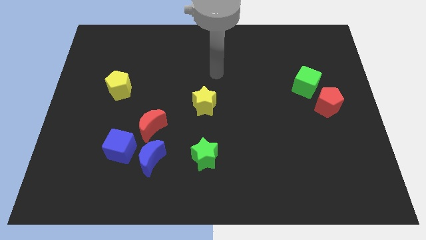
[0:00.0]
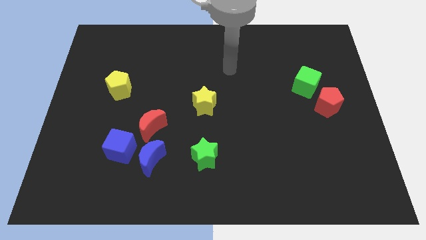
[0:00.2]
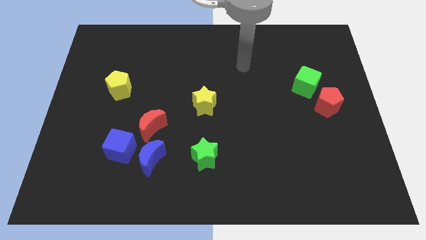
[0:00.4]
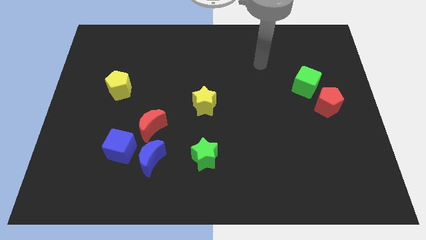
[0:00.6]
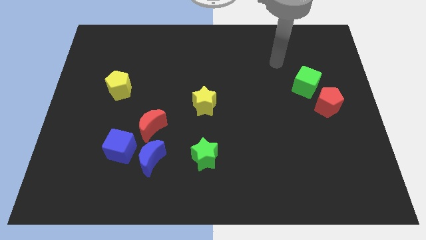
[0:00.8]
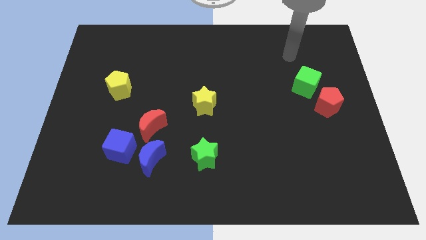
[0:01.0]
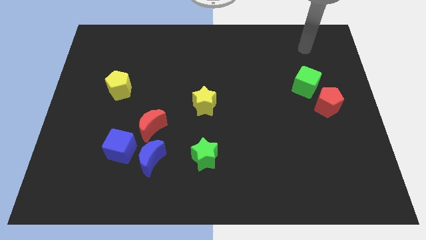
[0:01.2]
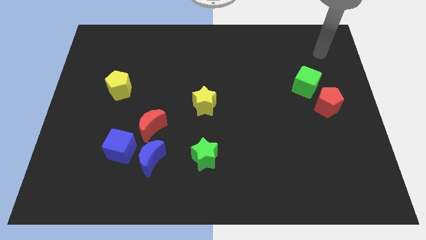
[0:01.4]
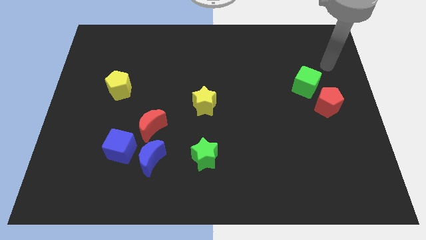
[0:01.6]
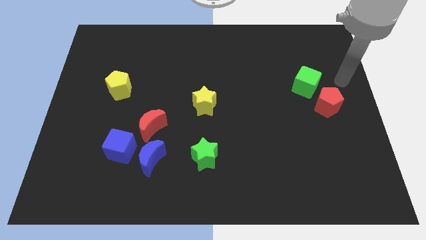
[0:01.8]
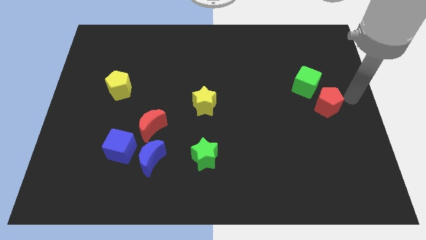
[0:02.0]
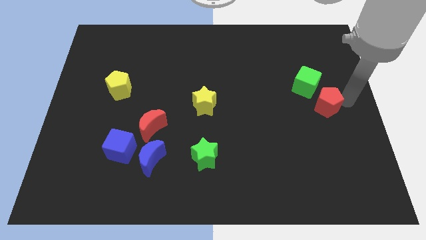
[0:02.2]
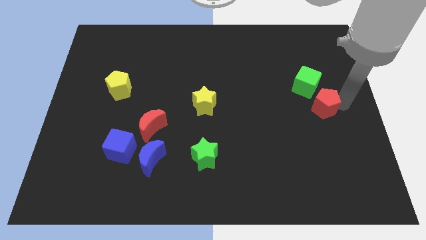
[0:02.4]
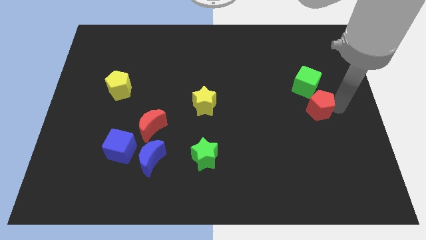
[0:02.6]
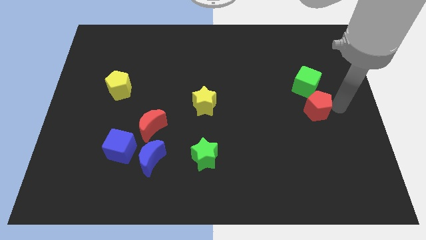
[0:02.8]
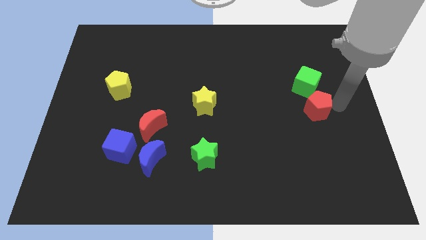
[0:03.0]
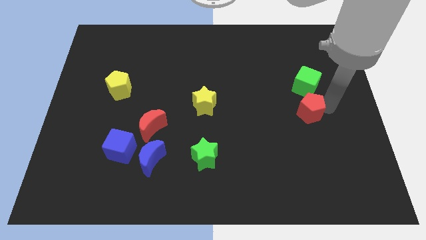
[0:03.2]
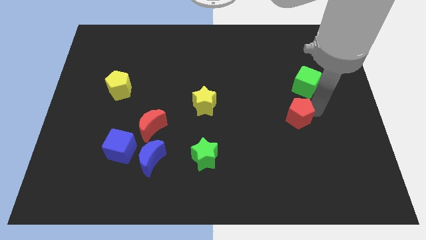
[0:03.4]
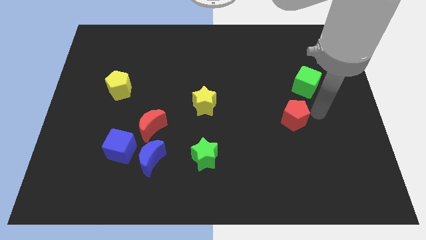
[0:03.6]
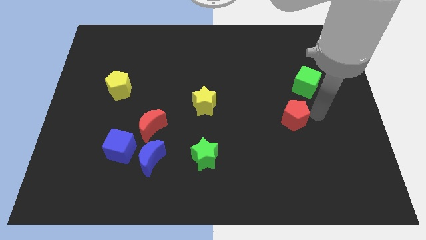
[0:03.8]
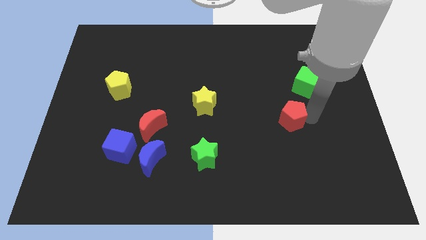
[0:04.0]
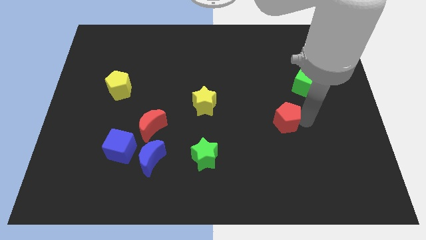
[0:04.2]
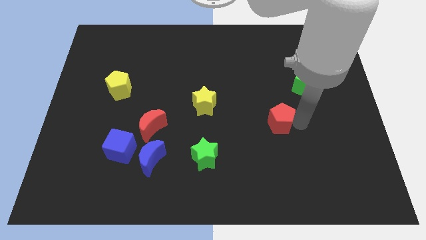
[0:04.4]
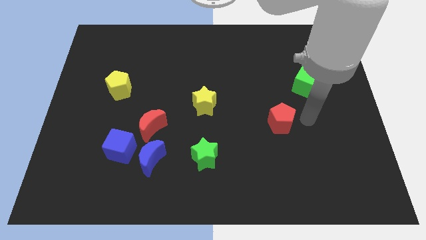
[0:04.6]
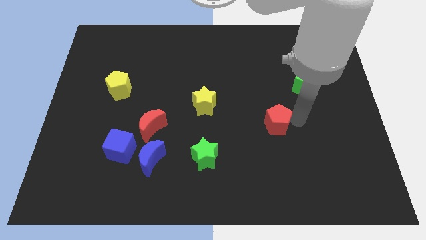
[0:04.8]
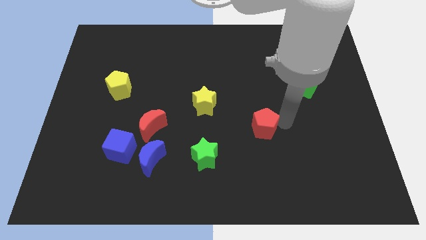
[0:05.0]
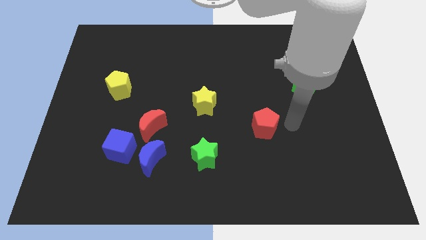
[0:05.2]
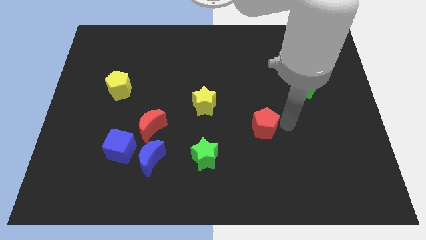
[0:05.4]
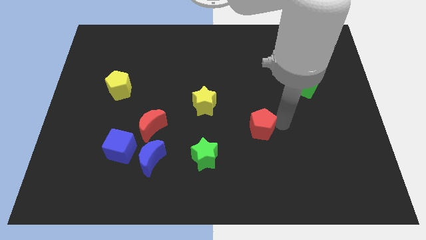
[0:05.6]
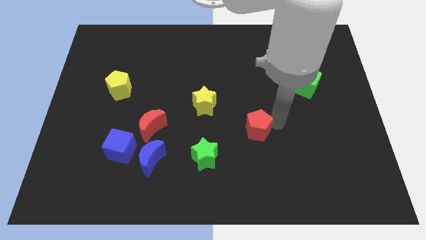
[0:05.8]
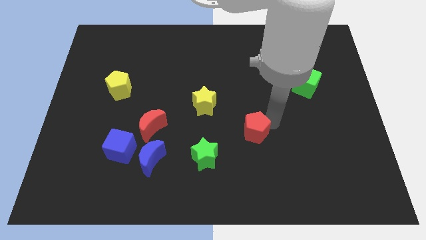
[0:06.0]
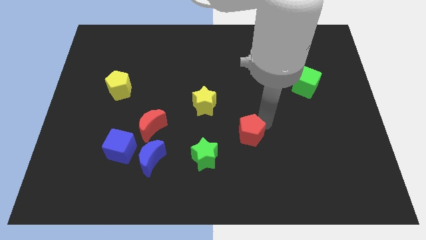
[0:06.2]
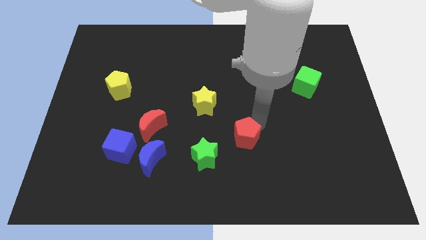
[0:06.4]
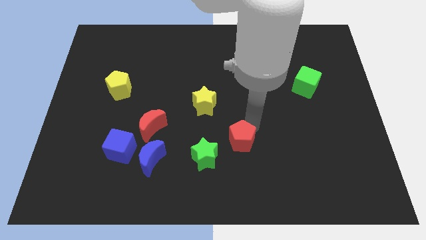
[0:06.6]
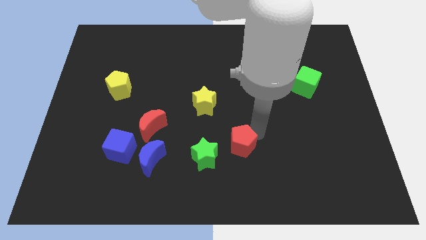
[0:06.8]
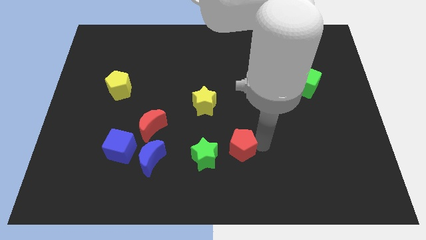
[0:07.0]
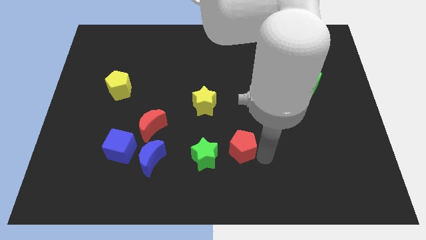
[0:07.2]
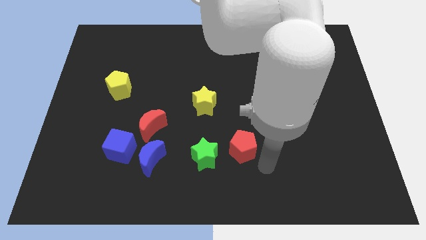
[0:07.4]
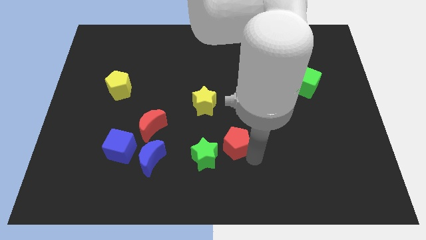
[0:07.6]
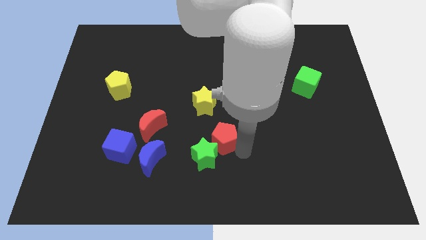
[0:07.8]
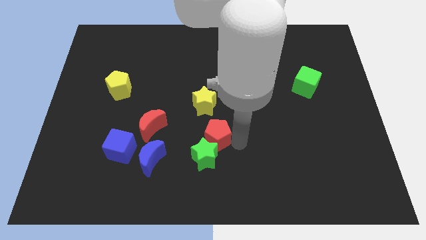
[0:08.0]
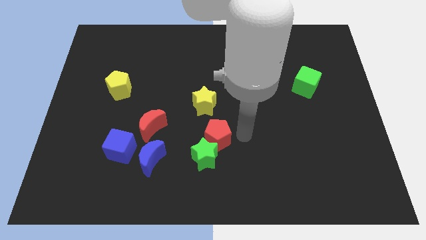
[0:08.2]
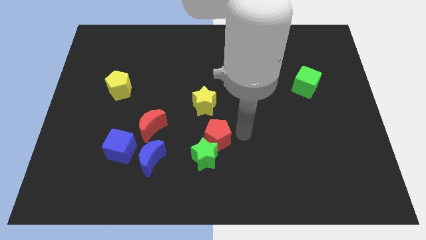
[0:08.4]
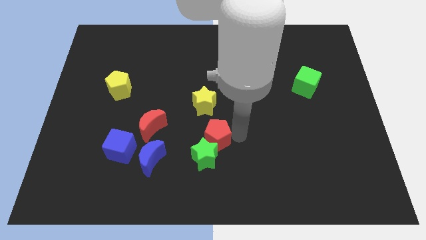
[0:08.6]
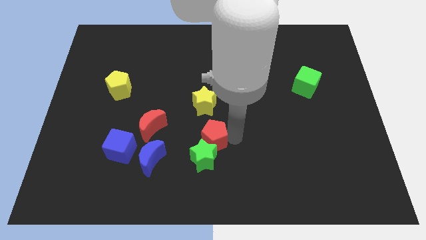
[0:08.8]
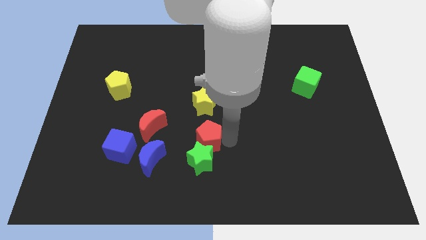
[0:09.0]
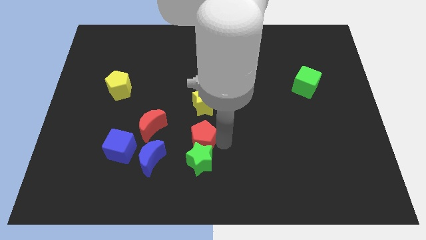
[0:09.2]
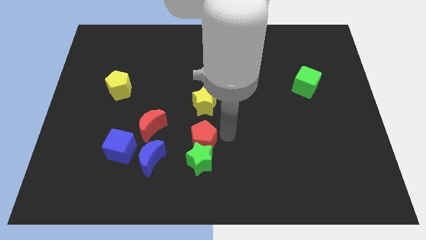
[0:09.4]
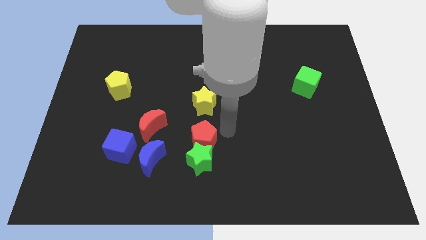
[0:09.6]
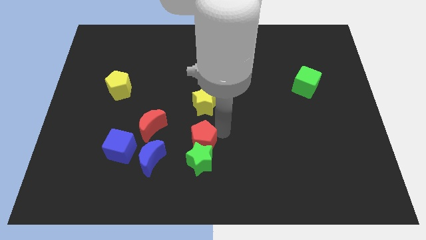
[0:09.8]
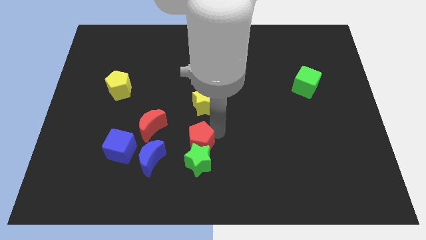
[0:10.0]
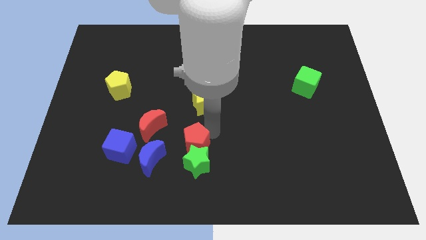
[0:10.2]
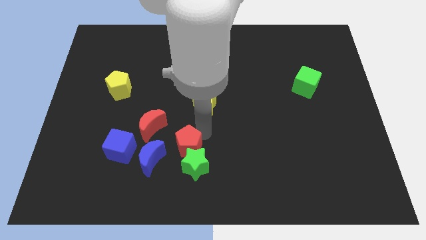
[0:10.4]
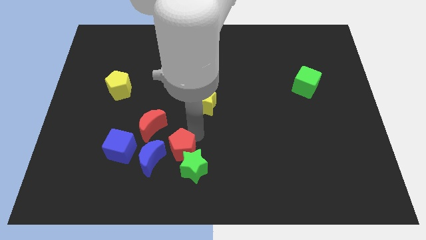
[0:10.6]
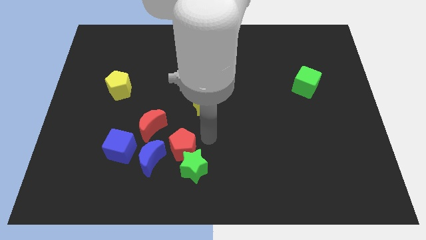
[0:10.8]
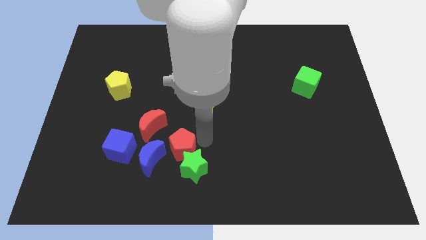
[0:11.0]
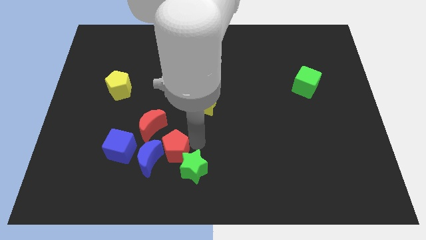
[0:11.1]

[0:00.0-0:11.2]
push the red pentagon to the blue moon

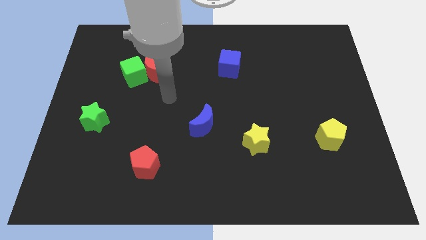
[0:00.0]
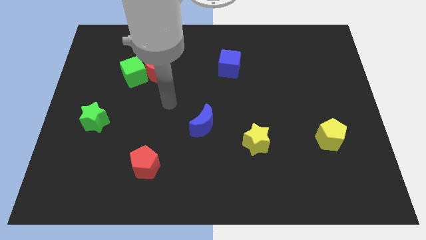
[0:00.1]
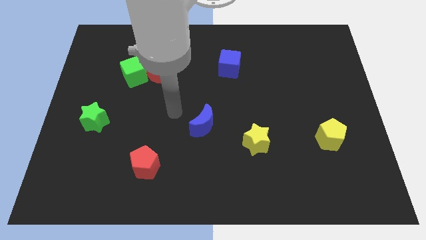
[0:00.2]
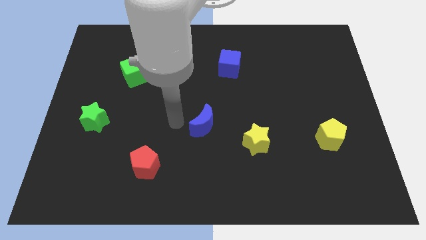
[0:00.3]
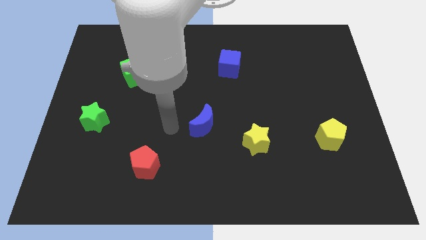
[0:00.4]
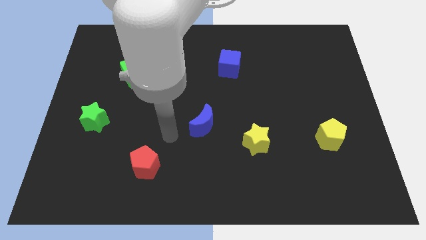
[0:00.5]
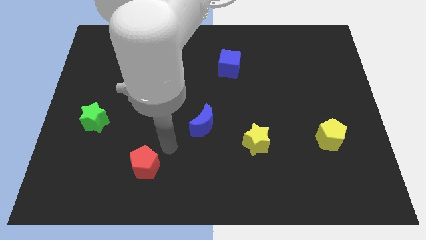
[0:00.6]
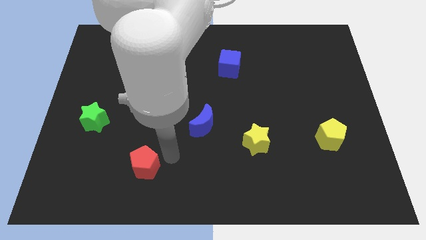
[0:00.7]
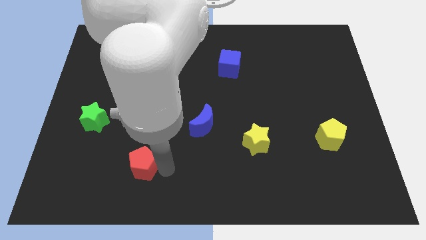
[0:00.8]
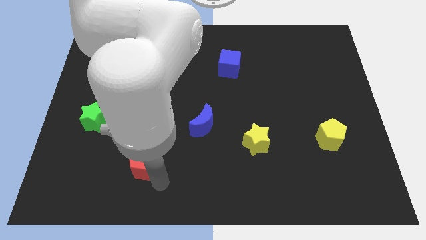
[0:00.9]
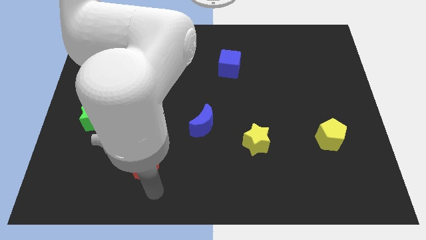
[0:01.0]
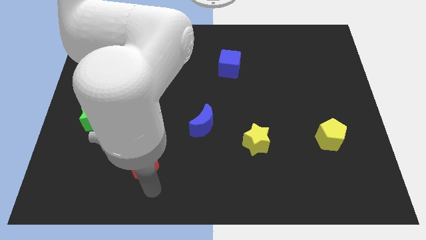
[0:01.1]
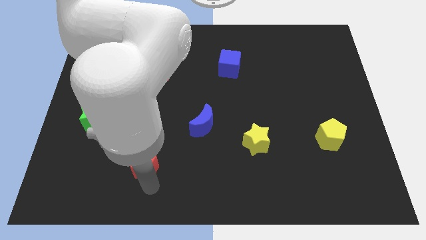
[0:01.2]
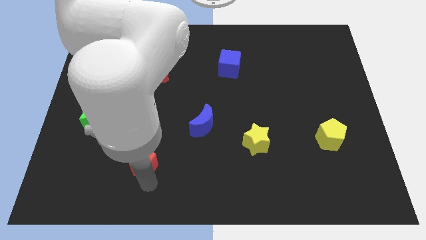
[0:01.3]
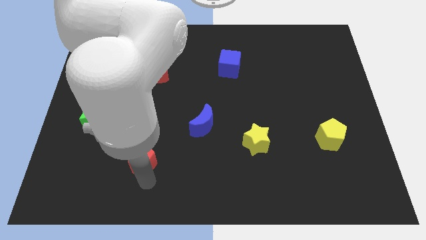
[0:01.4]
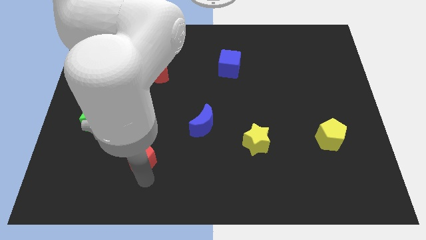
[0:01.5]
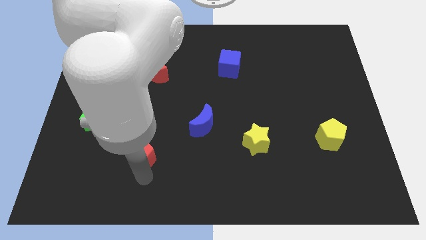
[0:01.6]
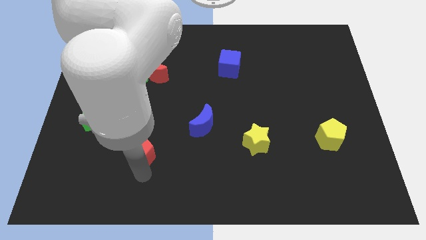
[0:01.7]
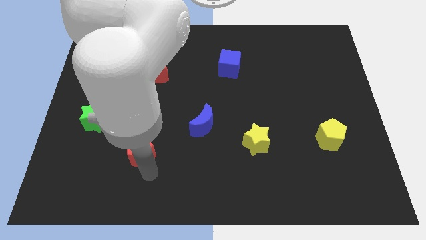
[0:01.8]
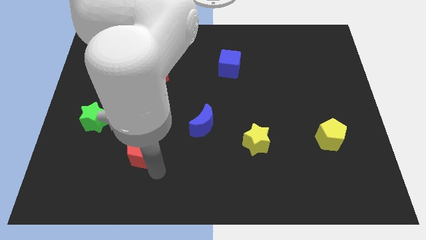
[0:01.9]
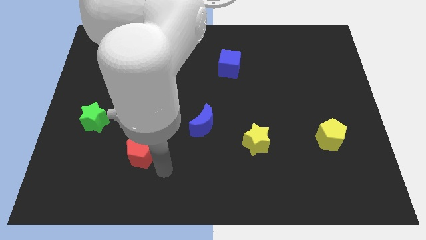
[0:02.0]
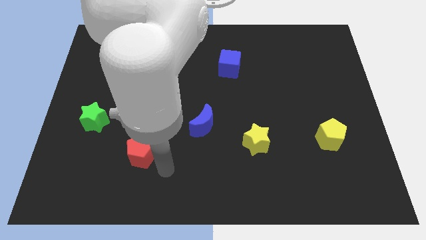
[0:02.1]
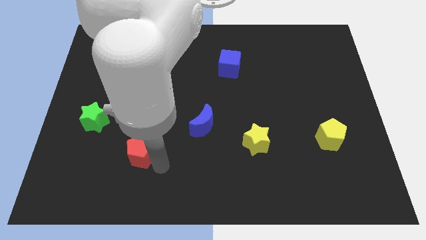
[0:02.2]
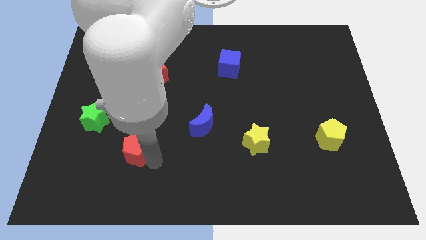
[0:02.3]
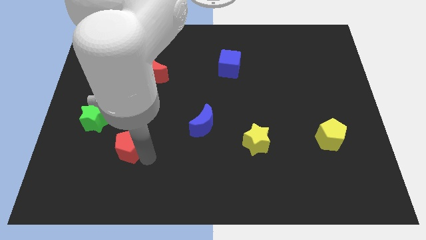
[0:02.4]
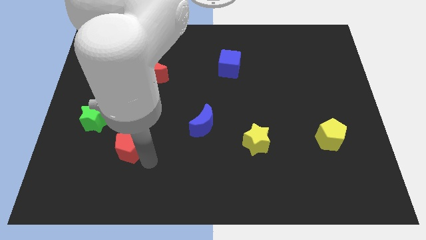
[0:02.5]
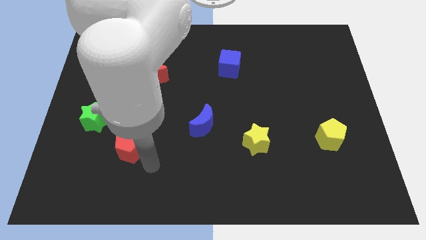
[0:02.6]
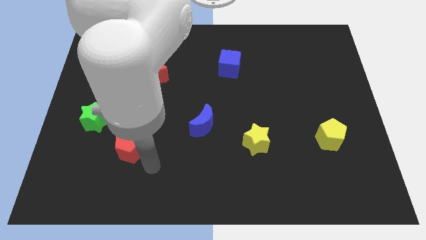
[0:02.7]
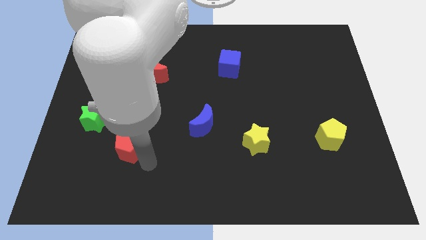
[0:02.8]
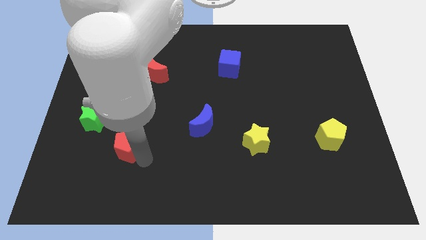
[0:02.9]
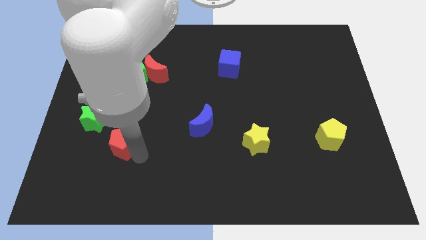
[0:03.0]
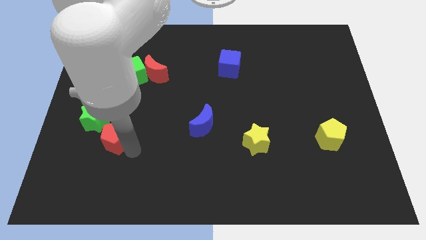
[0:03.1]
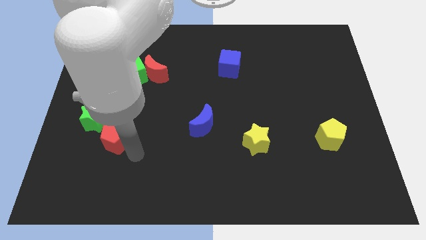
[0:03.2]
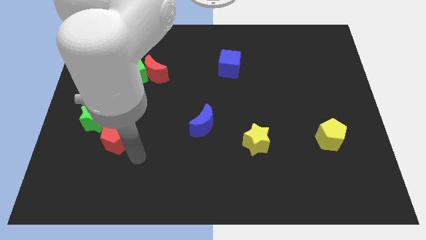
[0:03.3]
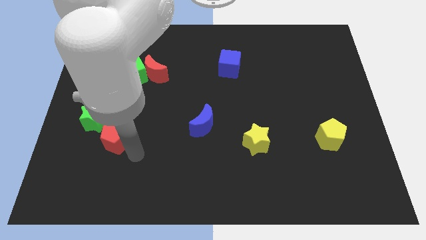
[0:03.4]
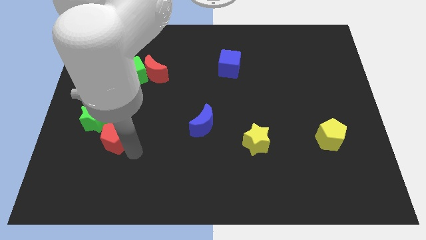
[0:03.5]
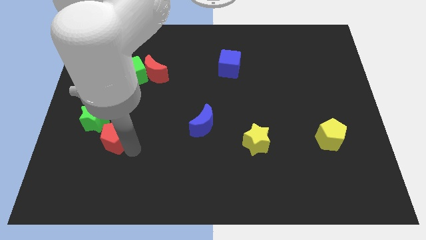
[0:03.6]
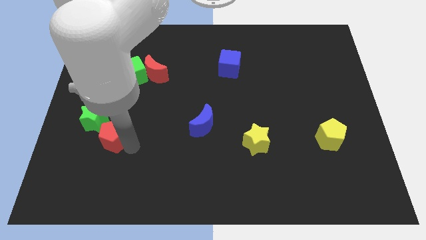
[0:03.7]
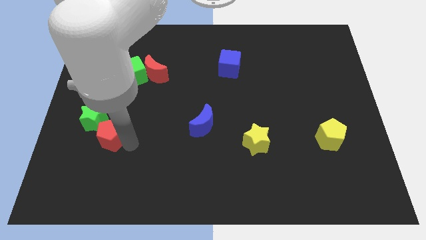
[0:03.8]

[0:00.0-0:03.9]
move the red pentagon to the green star
